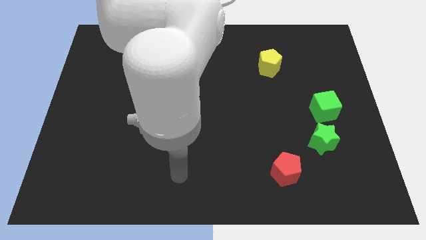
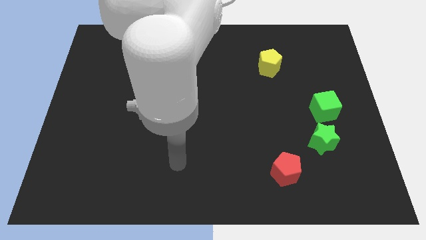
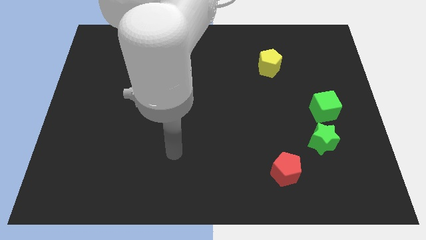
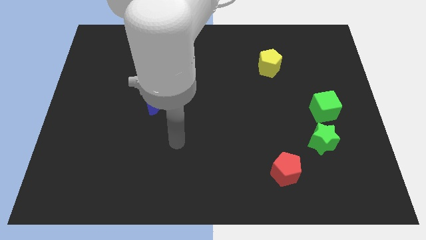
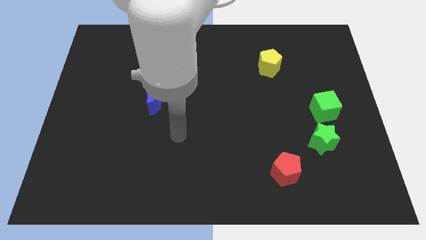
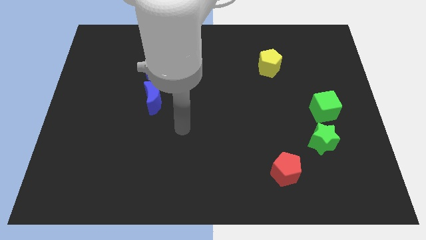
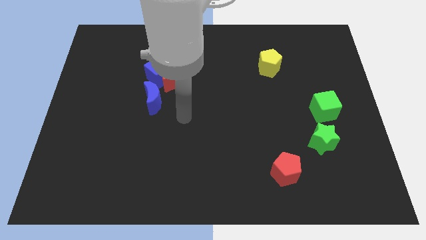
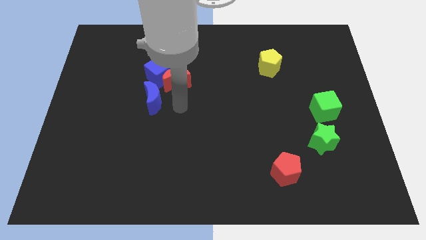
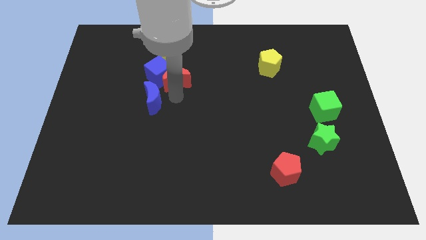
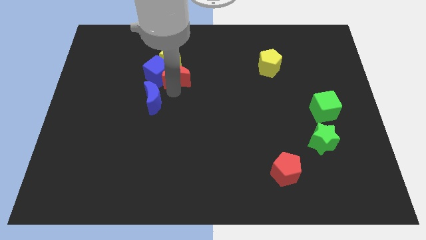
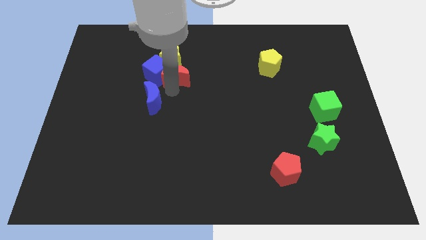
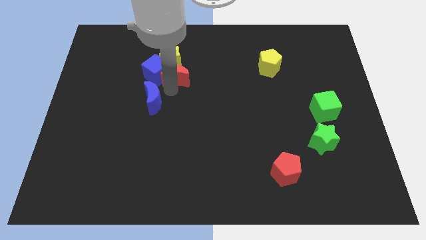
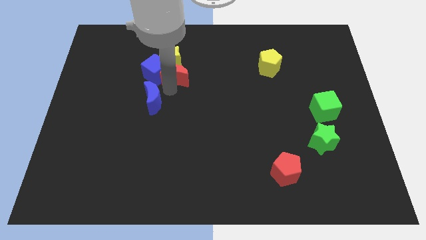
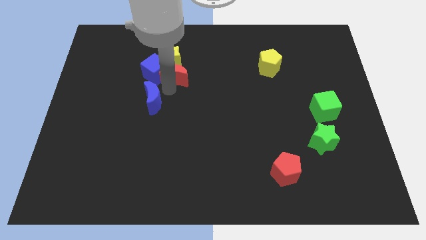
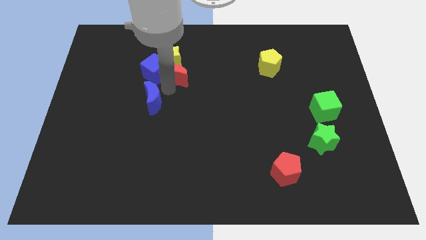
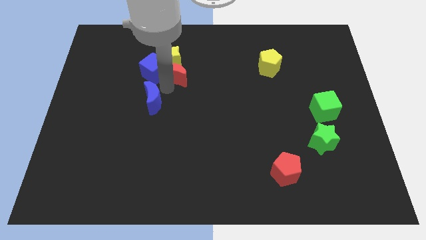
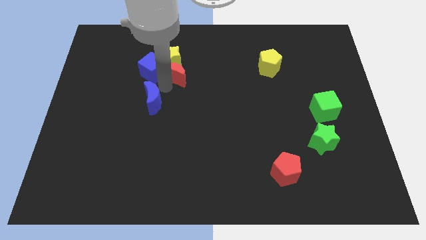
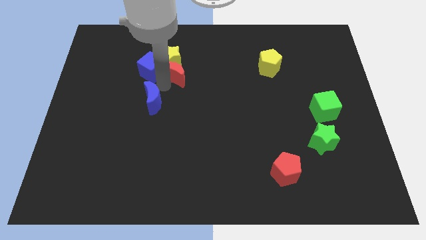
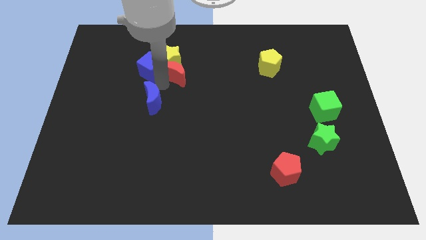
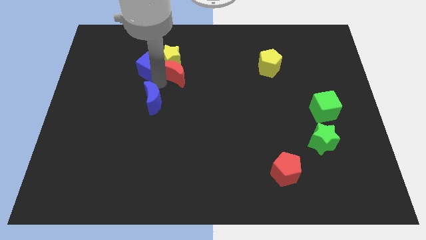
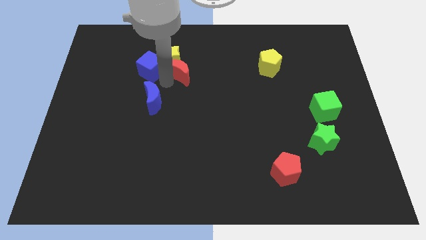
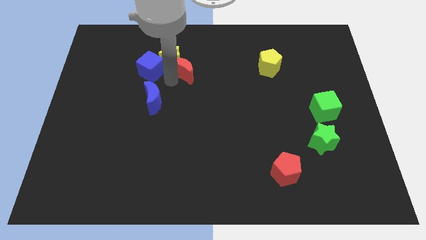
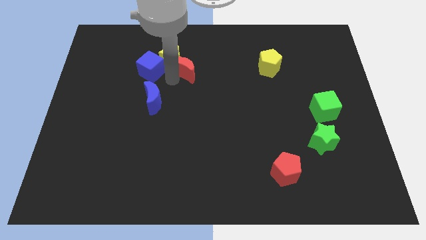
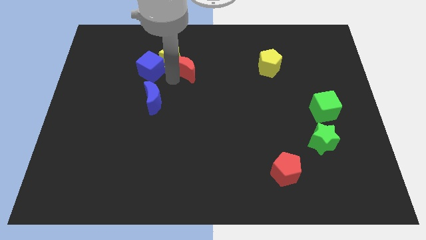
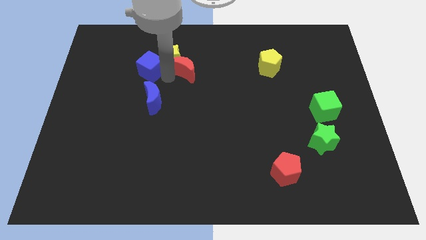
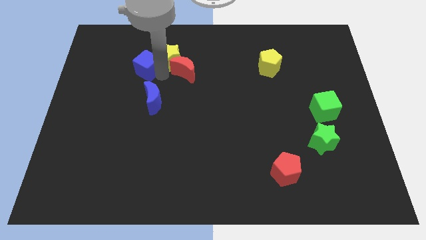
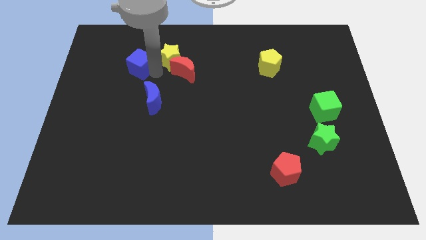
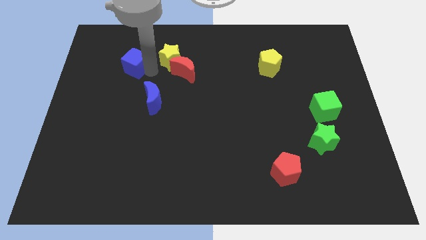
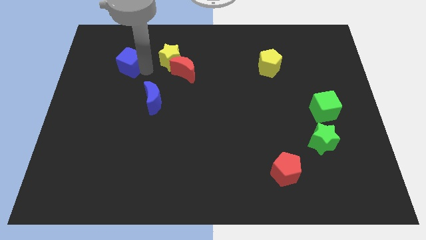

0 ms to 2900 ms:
separate the blue cube from the red moon, yellow star, and blue moon

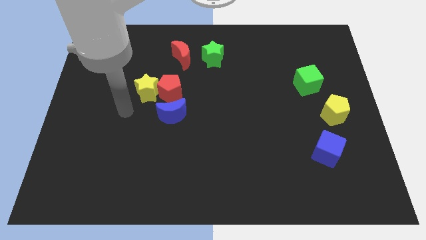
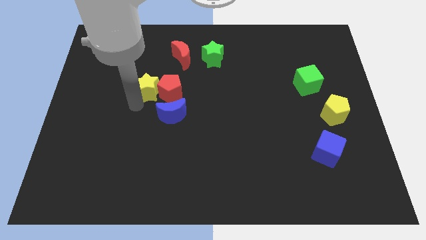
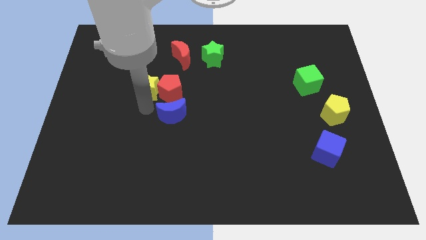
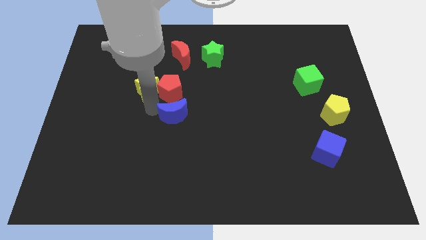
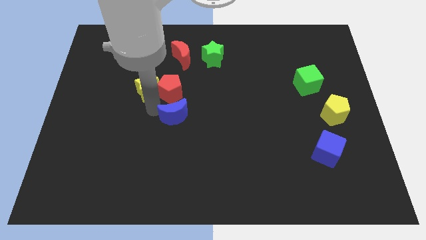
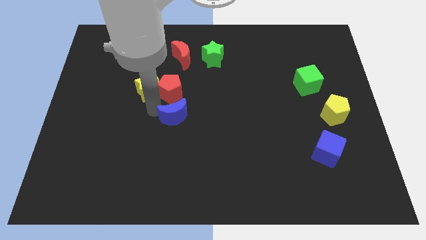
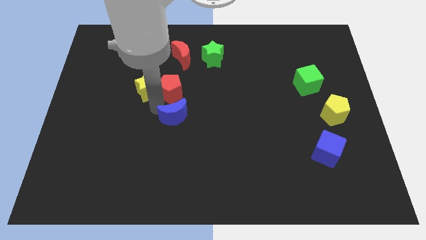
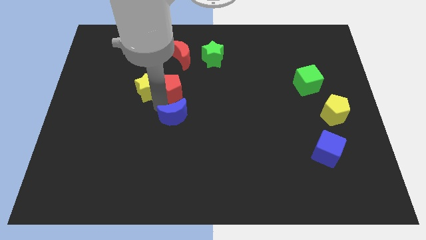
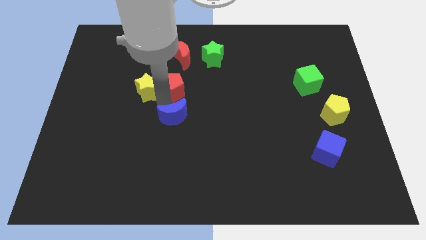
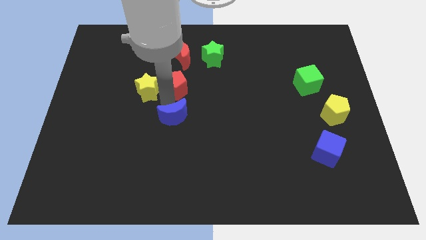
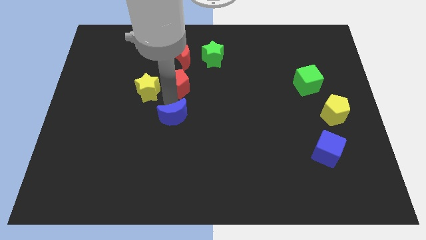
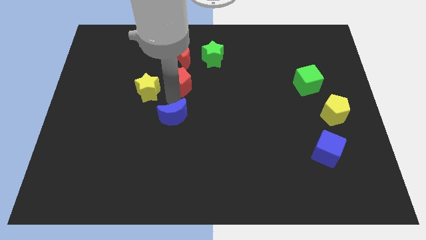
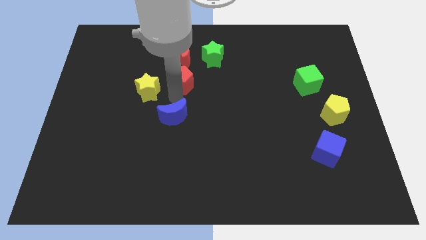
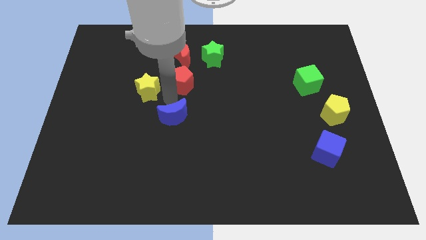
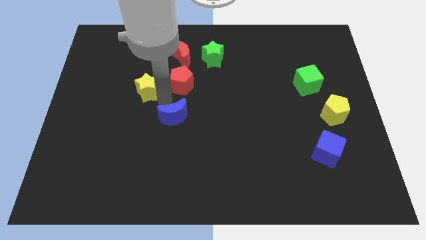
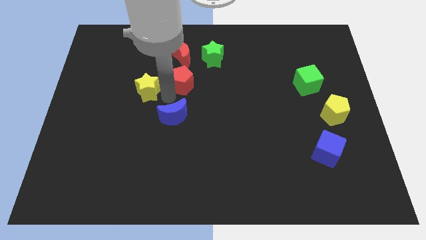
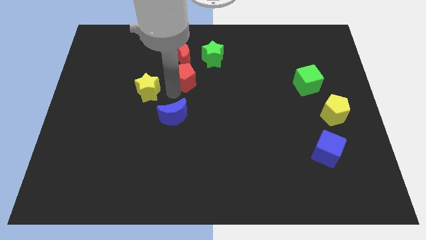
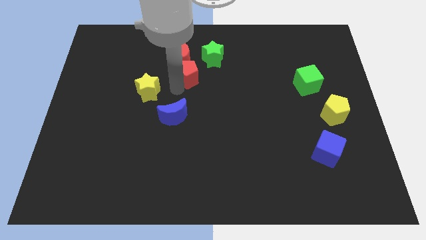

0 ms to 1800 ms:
move the red pentagon away from the yellow star and blue moon

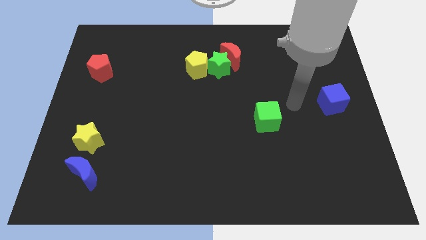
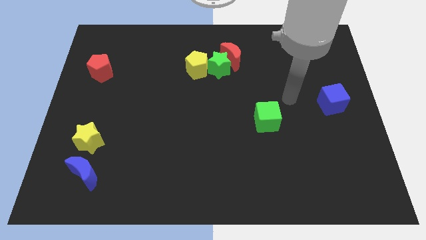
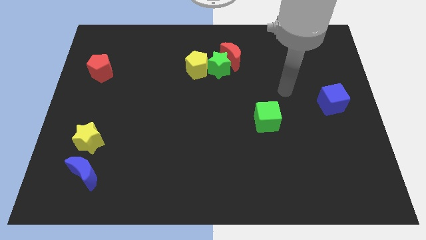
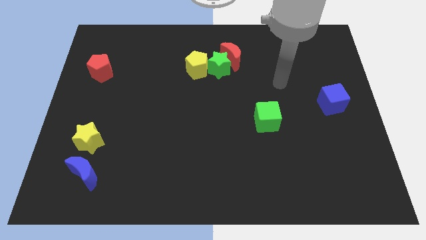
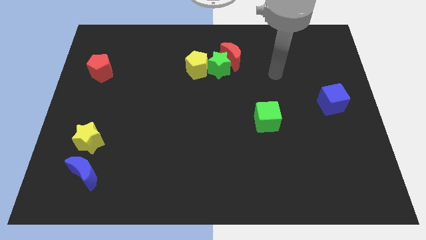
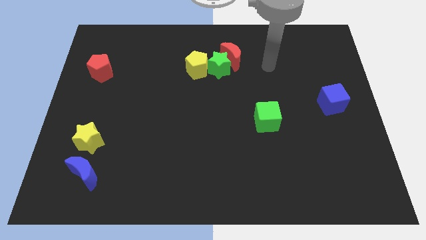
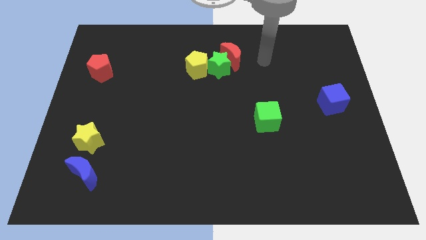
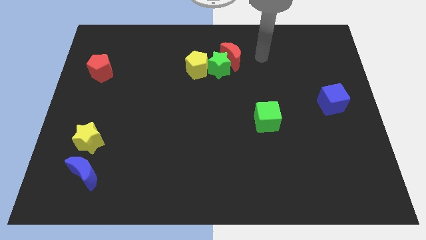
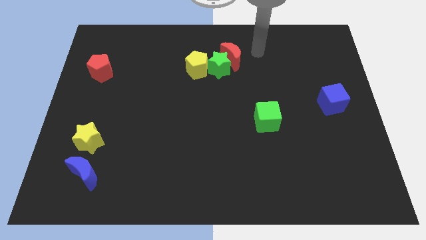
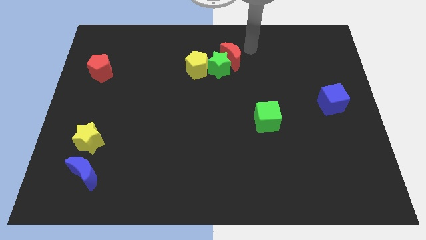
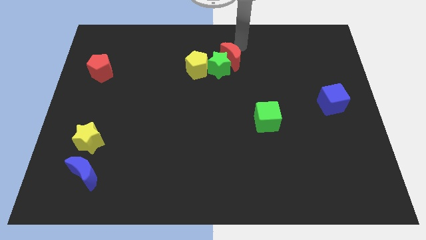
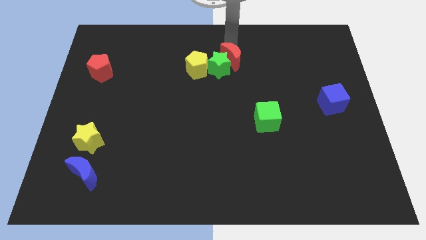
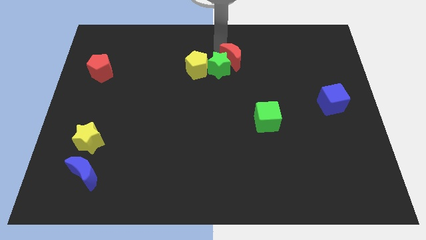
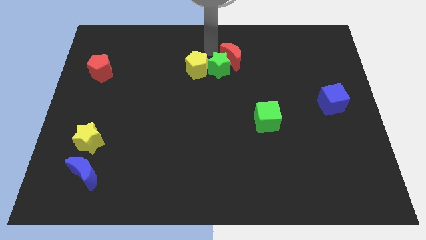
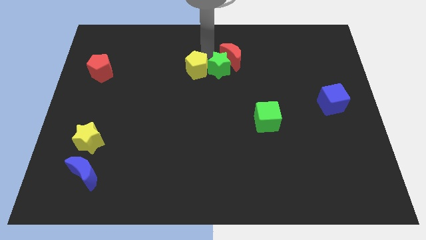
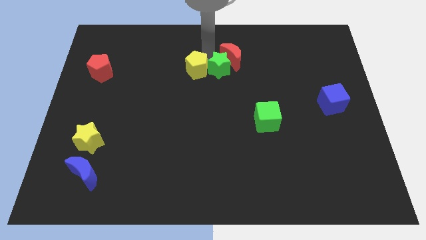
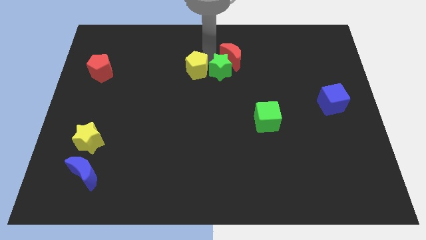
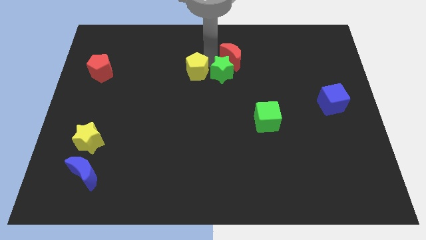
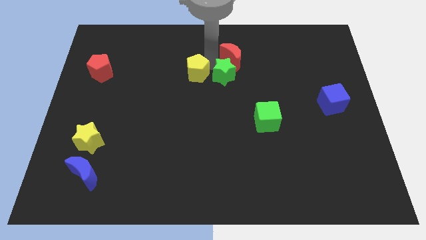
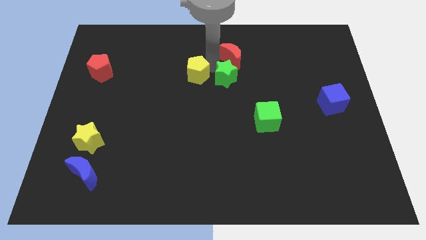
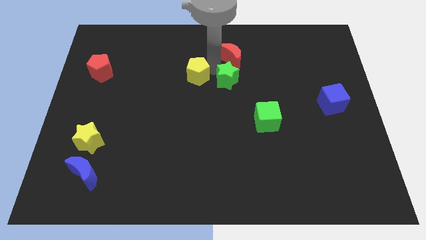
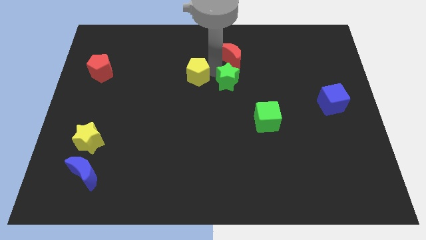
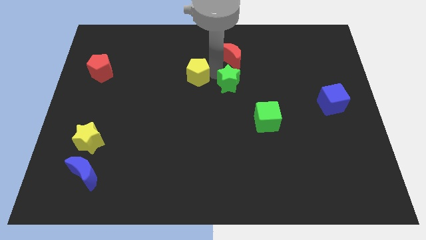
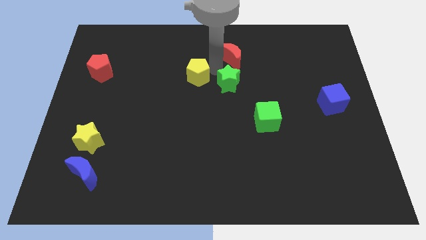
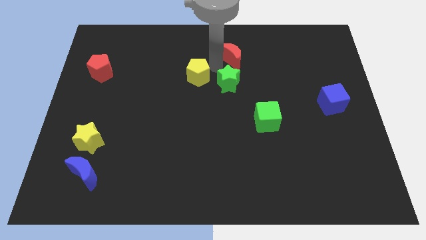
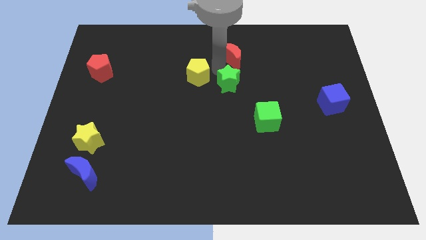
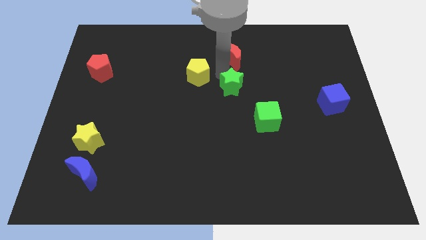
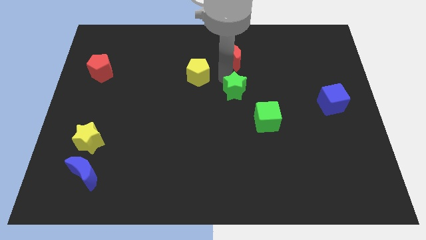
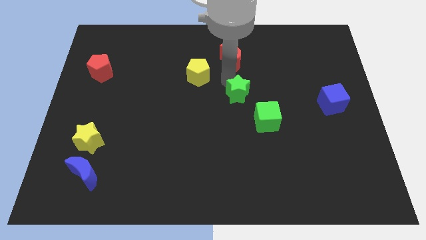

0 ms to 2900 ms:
pull the green star apart from the red moon and yellow pentagon

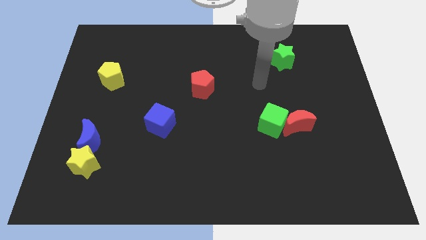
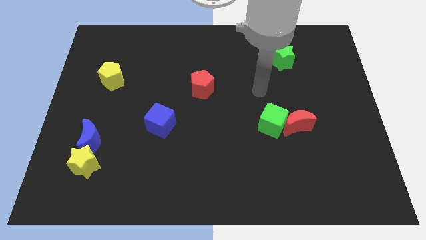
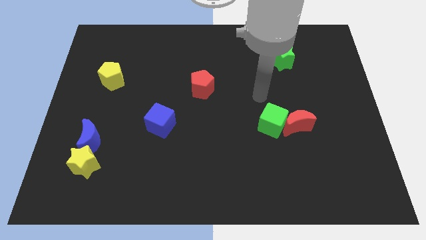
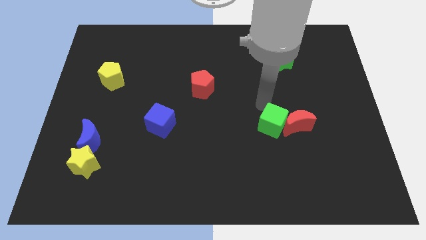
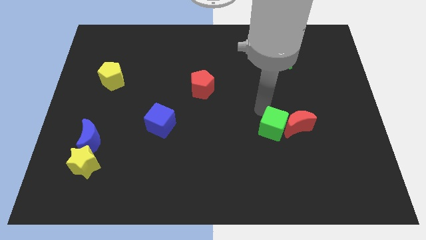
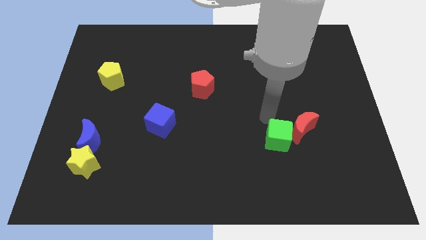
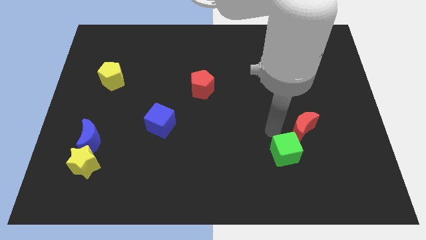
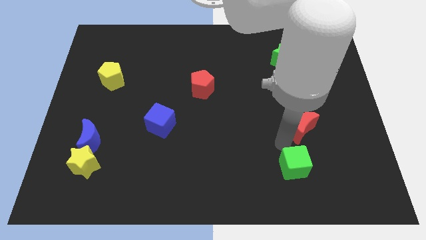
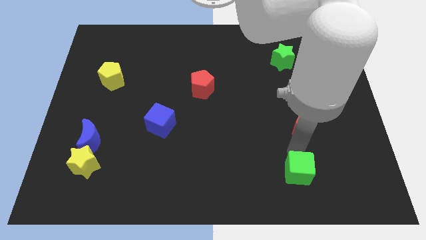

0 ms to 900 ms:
separate the red moon from the green cube

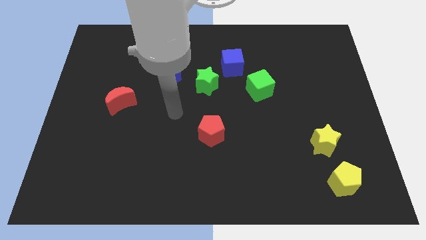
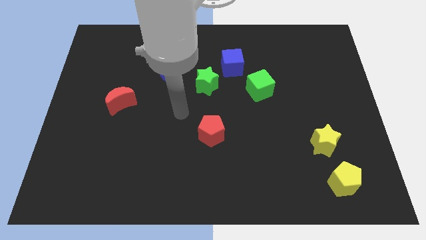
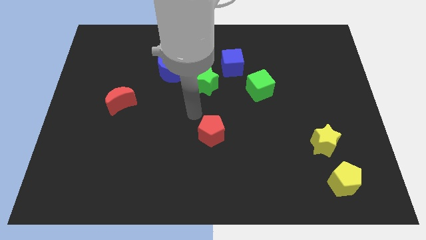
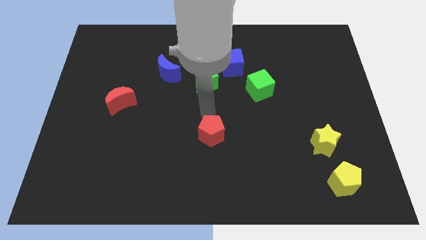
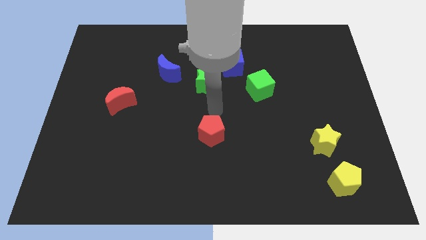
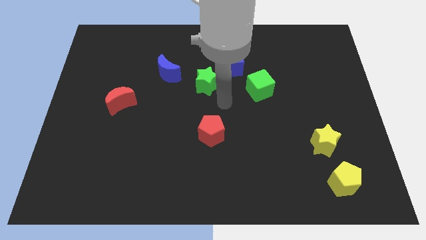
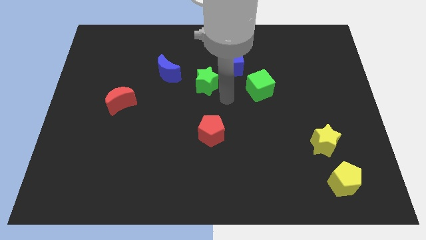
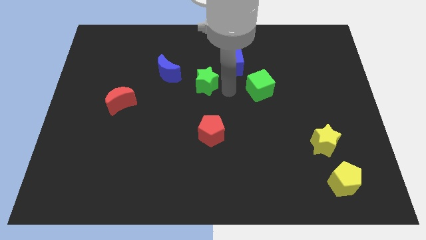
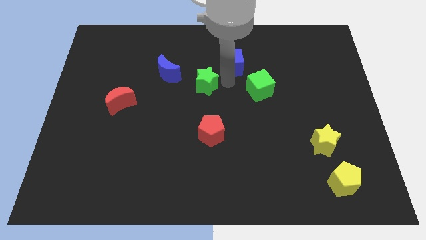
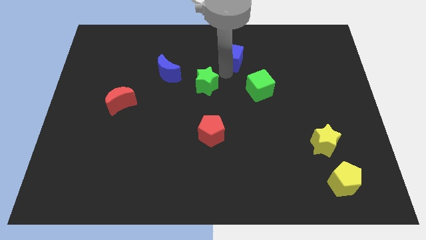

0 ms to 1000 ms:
move the green star away from the blue cube

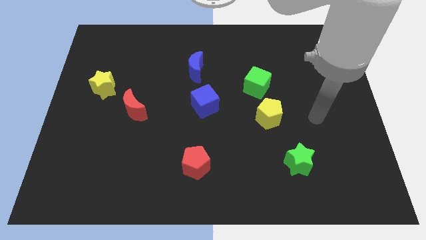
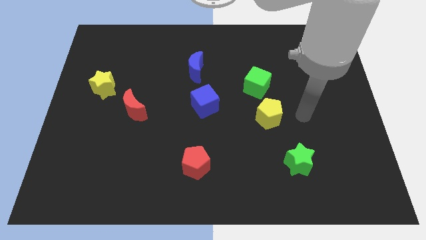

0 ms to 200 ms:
separate the green cube from the yellow pentagon
